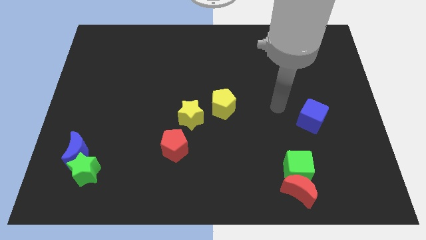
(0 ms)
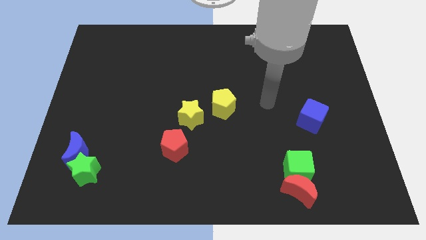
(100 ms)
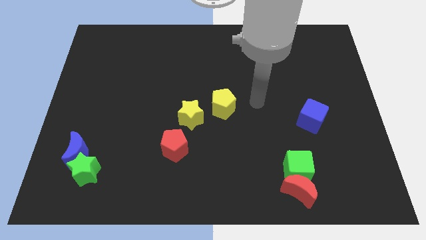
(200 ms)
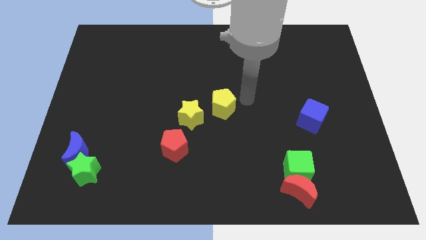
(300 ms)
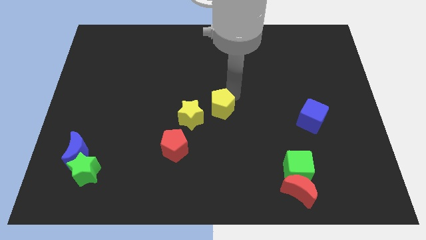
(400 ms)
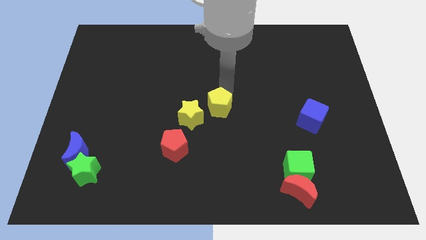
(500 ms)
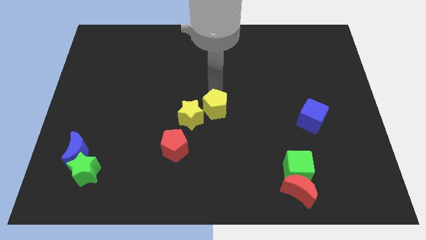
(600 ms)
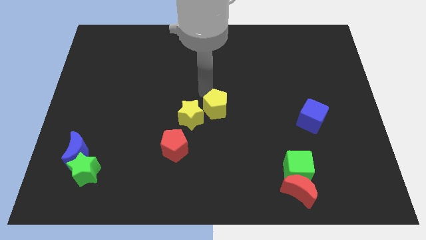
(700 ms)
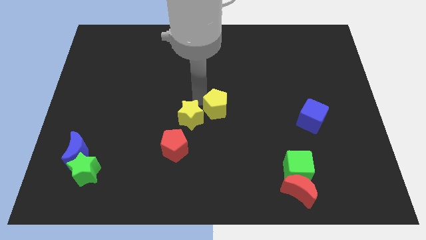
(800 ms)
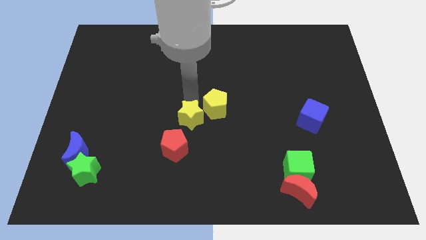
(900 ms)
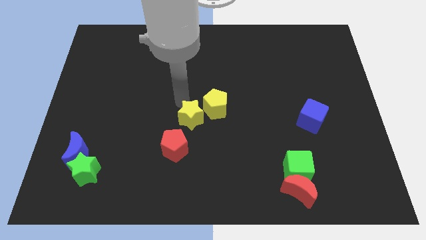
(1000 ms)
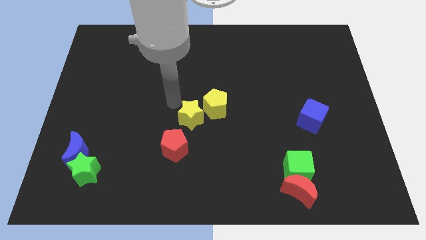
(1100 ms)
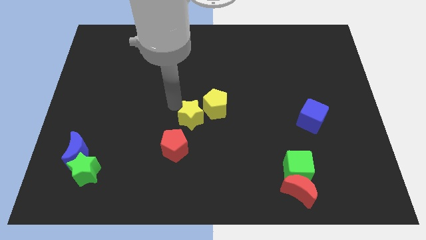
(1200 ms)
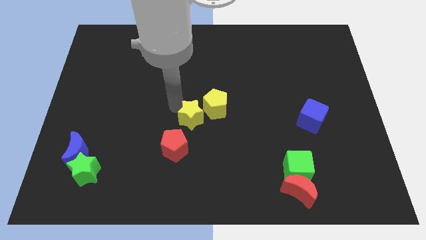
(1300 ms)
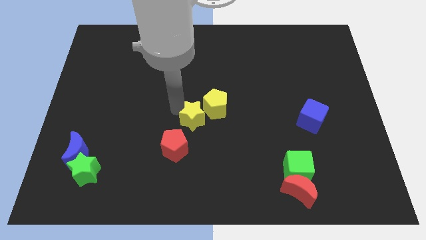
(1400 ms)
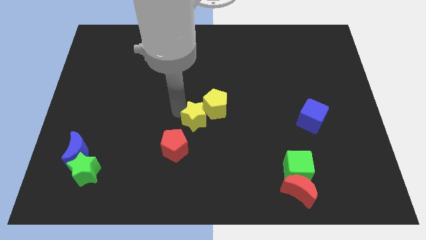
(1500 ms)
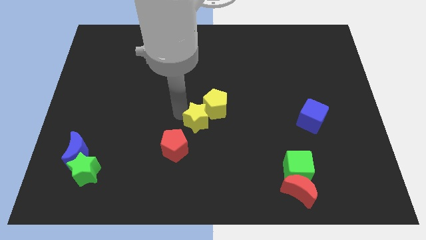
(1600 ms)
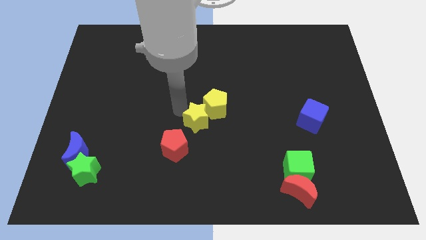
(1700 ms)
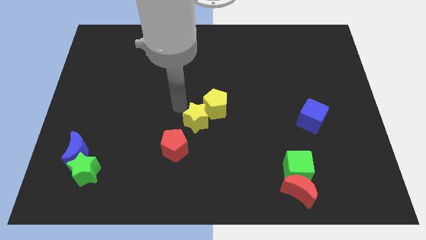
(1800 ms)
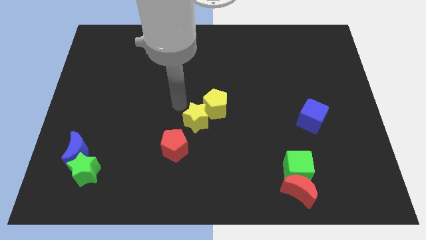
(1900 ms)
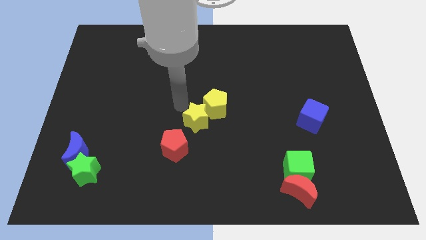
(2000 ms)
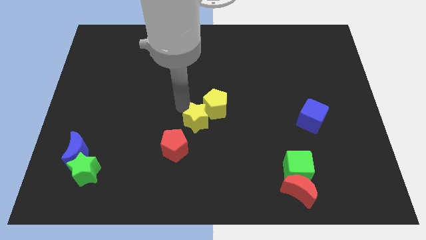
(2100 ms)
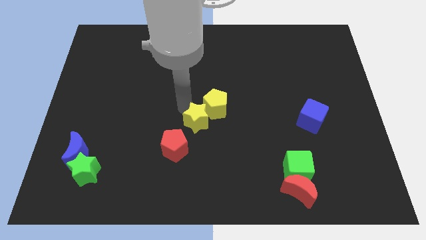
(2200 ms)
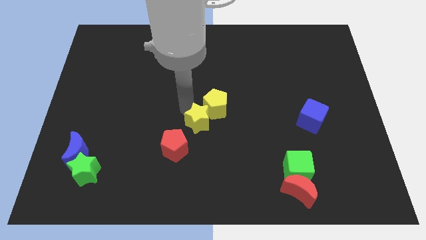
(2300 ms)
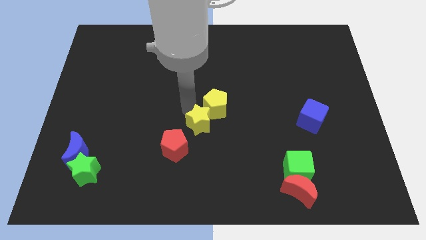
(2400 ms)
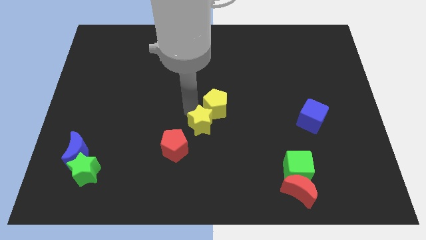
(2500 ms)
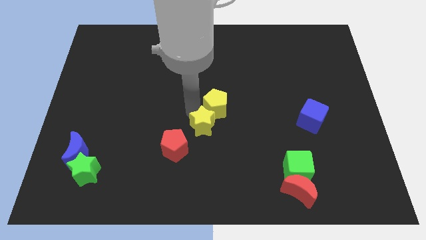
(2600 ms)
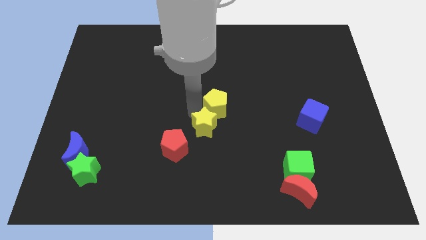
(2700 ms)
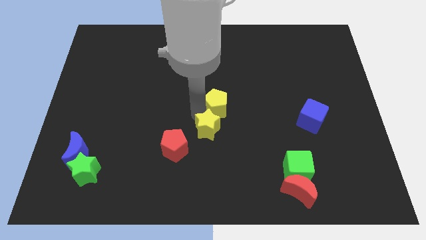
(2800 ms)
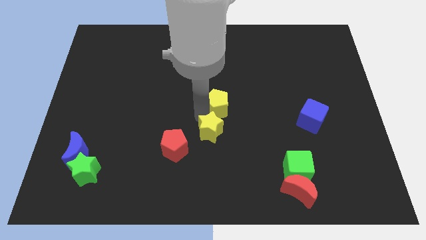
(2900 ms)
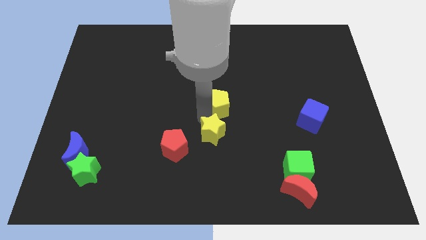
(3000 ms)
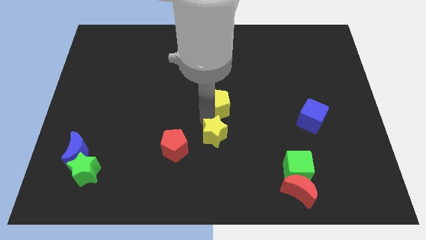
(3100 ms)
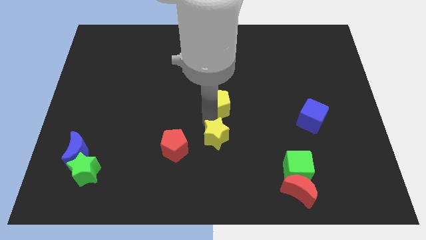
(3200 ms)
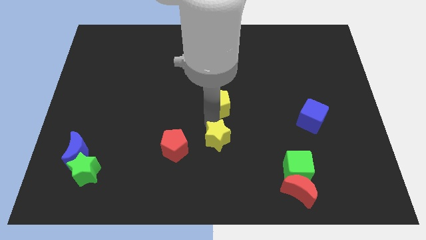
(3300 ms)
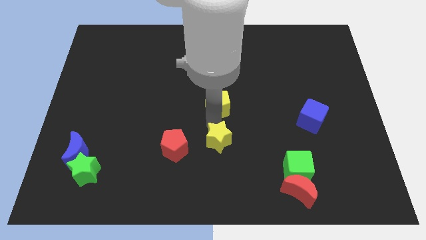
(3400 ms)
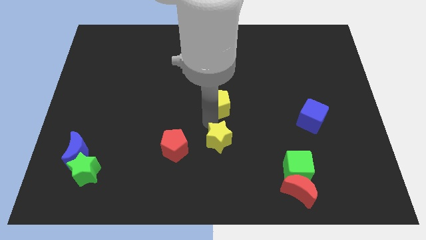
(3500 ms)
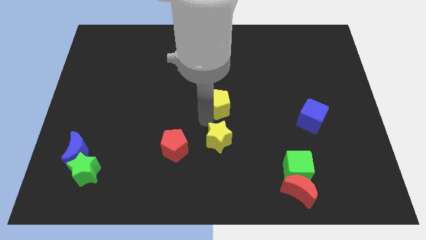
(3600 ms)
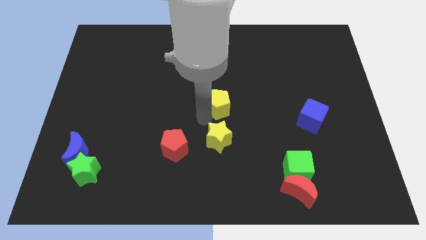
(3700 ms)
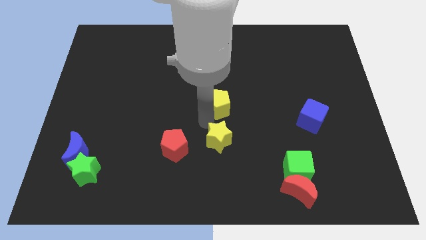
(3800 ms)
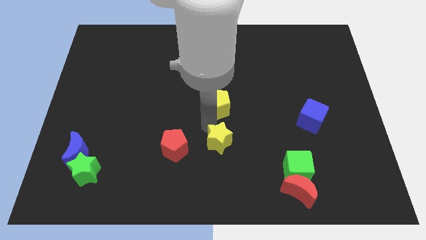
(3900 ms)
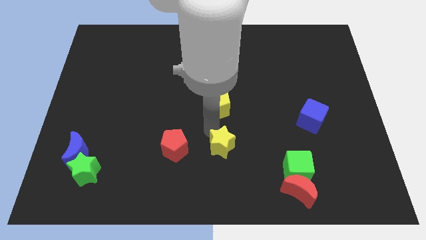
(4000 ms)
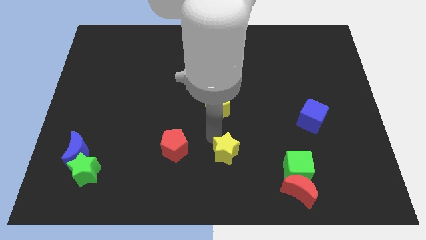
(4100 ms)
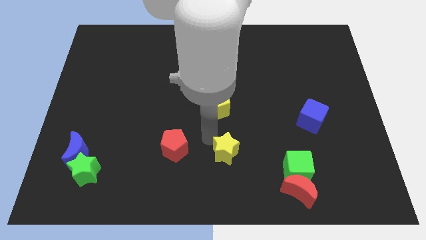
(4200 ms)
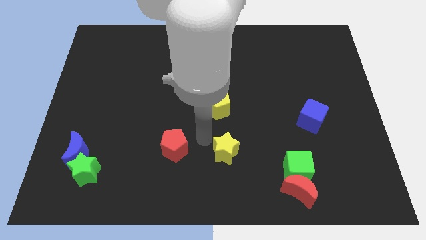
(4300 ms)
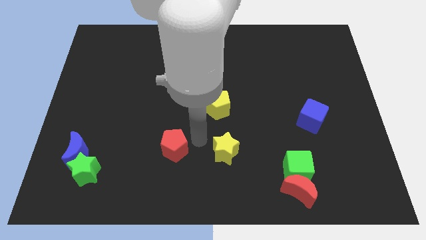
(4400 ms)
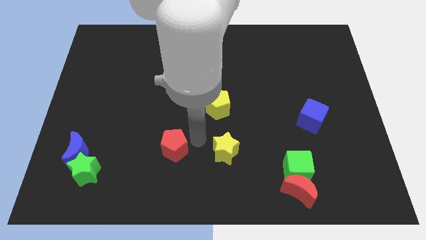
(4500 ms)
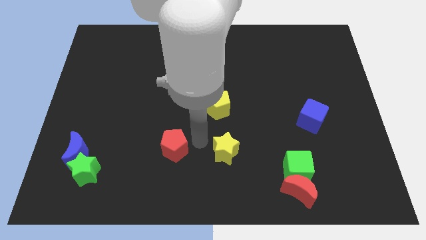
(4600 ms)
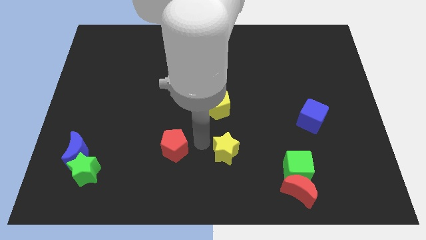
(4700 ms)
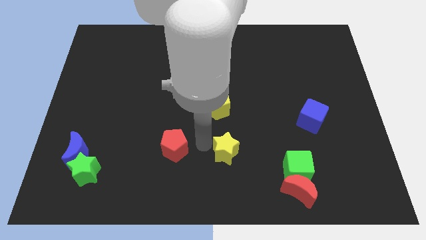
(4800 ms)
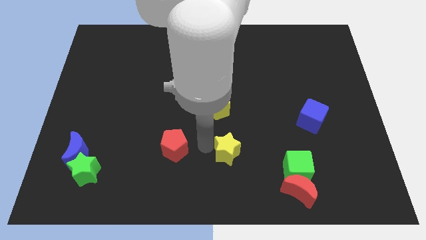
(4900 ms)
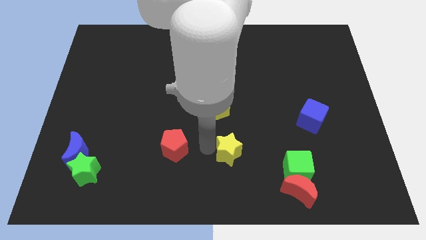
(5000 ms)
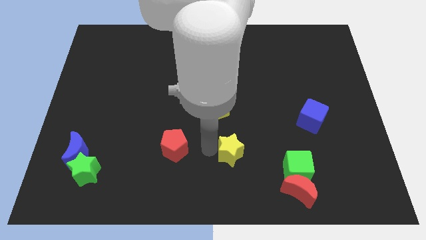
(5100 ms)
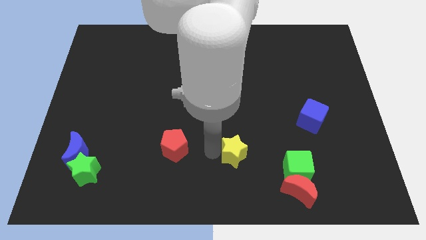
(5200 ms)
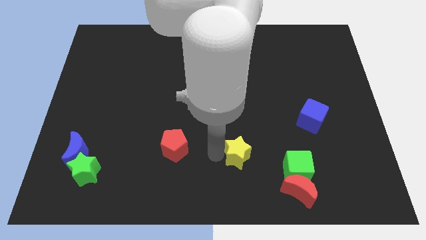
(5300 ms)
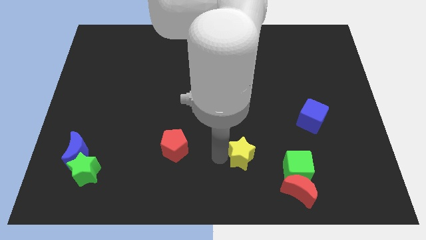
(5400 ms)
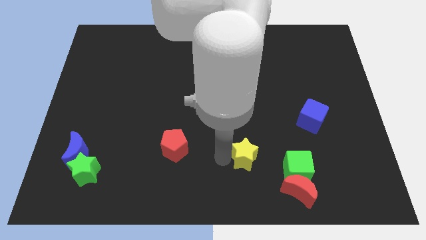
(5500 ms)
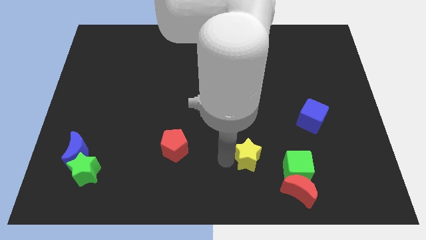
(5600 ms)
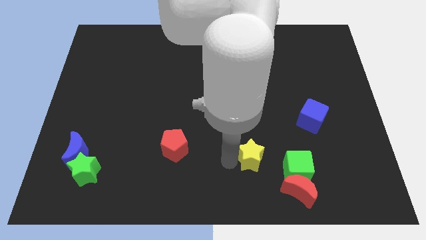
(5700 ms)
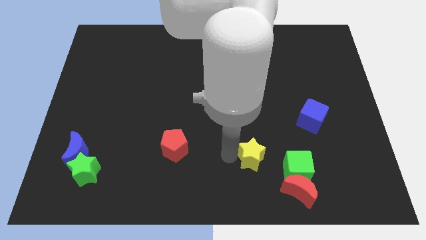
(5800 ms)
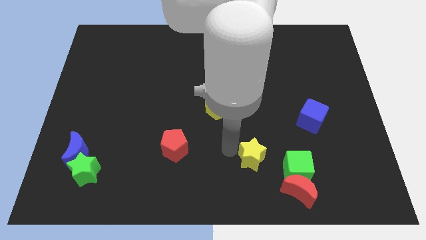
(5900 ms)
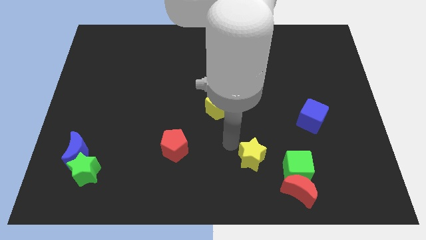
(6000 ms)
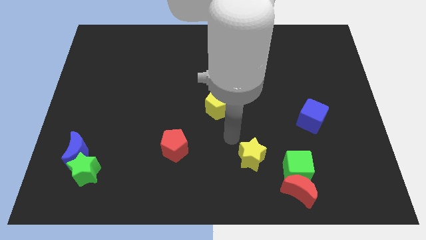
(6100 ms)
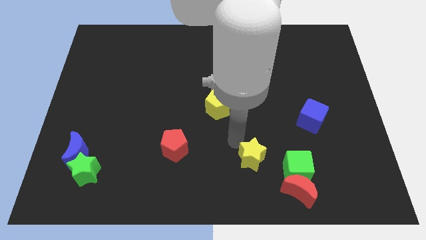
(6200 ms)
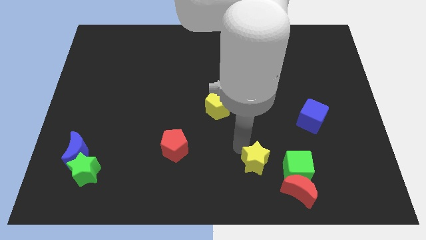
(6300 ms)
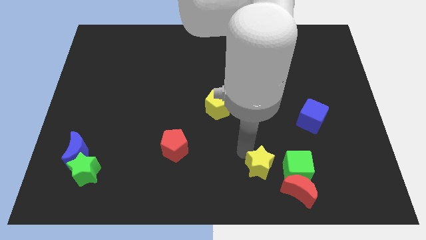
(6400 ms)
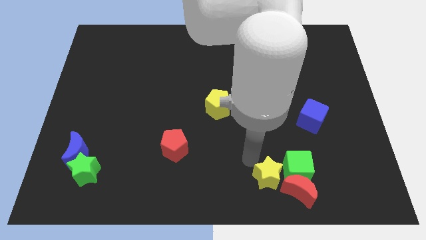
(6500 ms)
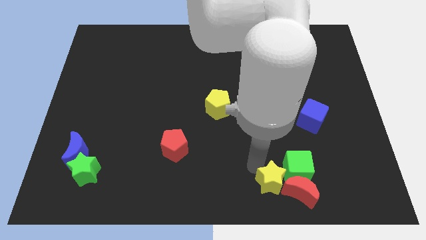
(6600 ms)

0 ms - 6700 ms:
slide the yellow star next to the red moon
